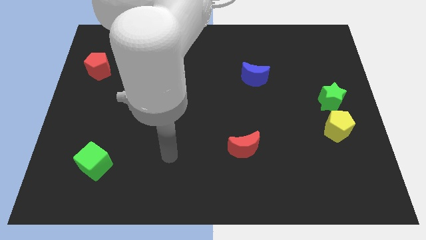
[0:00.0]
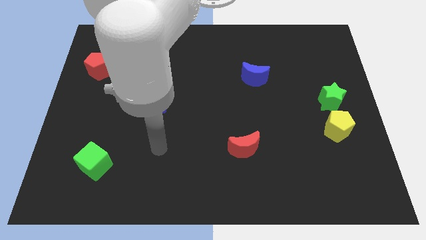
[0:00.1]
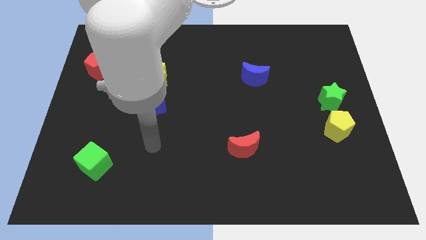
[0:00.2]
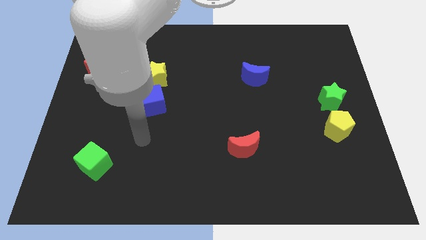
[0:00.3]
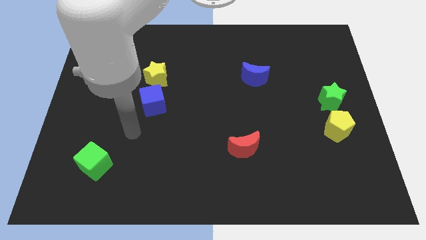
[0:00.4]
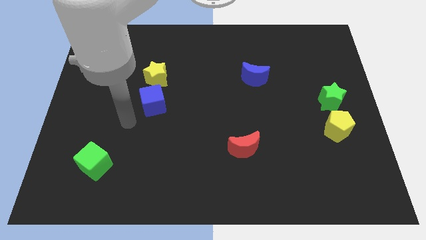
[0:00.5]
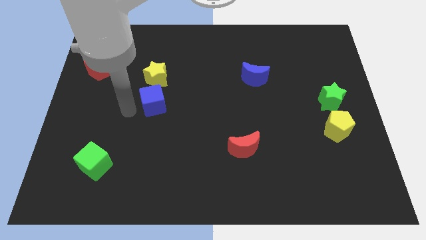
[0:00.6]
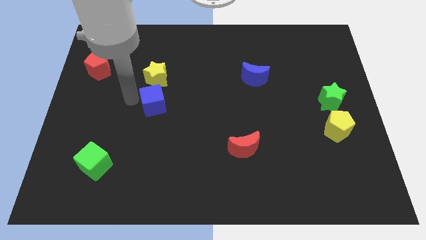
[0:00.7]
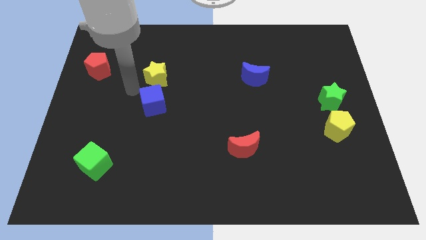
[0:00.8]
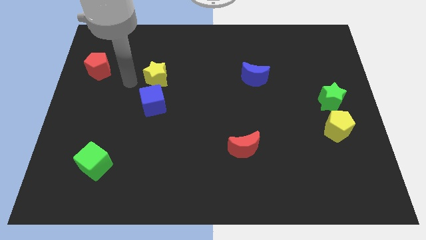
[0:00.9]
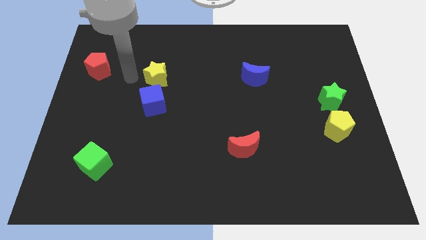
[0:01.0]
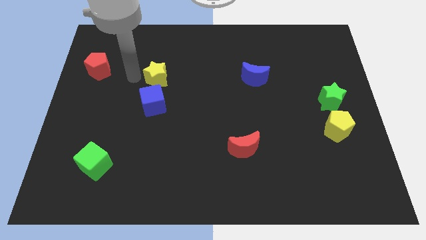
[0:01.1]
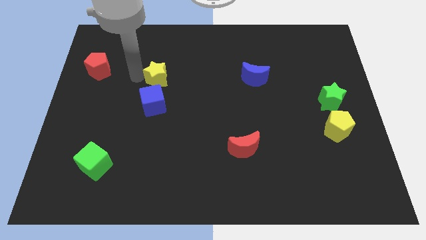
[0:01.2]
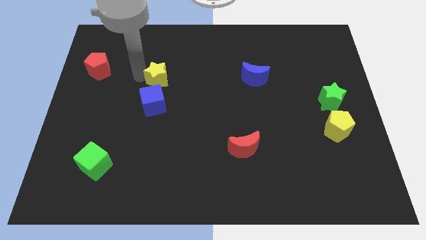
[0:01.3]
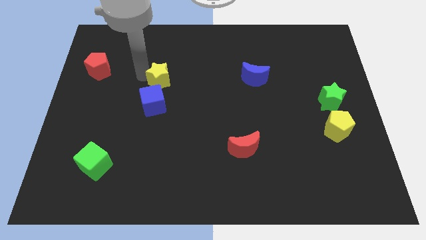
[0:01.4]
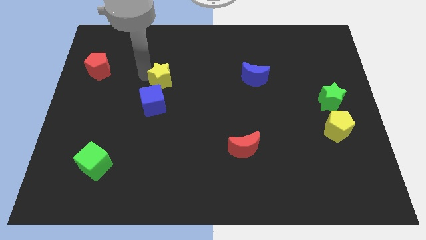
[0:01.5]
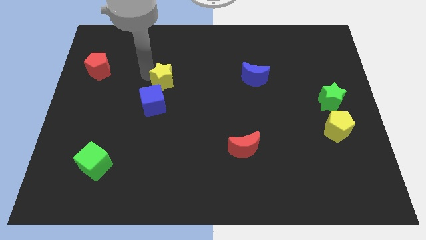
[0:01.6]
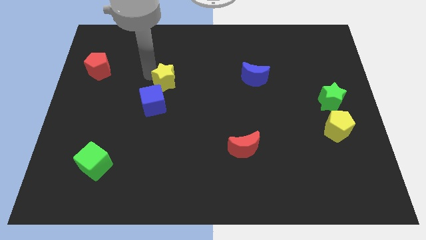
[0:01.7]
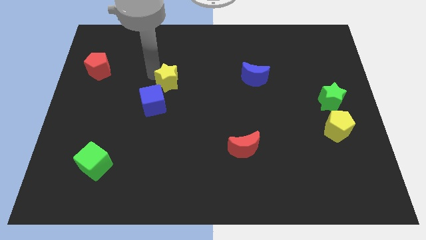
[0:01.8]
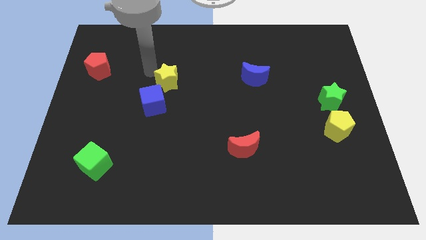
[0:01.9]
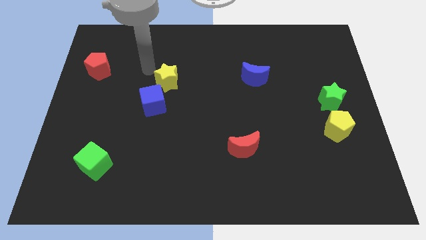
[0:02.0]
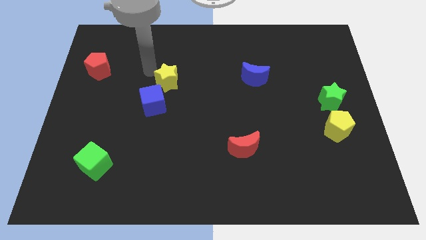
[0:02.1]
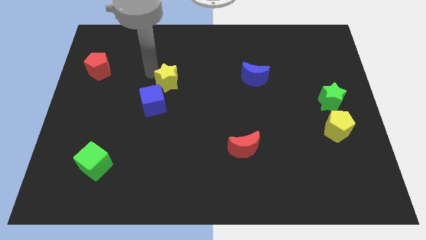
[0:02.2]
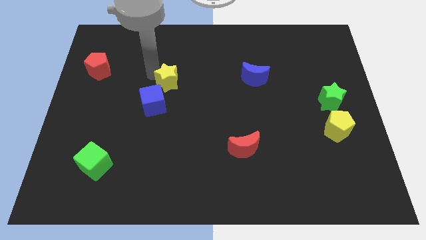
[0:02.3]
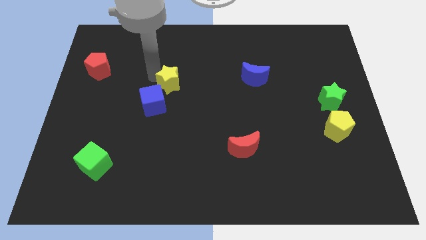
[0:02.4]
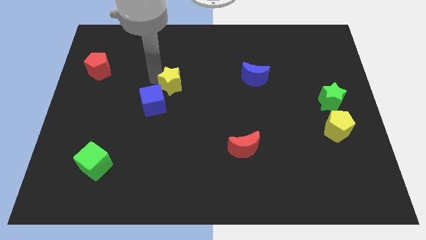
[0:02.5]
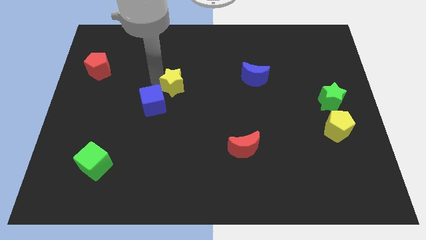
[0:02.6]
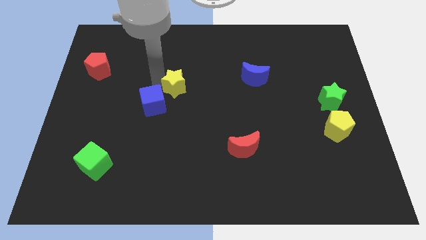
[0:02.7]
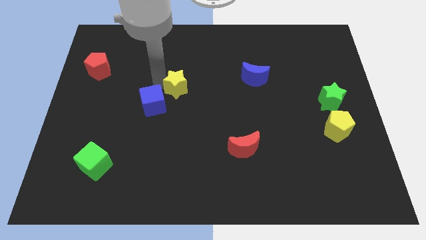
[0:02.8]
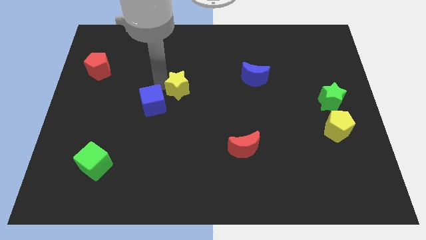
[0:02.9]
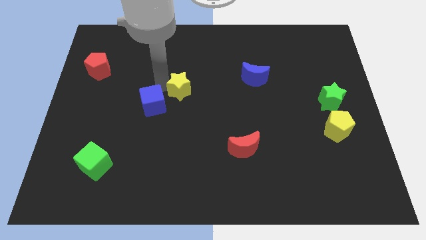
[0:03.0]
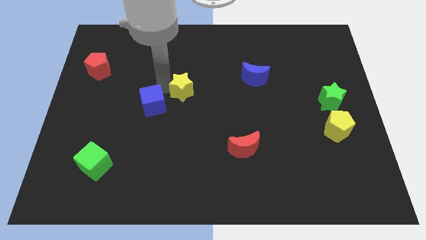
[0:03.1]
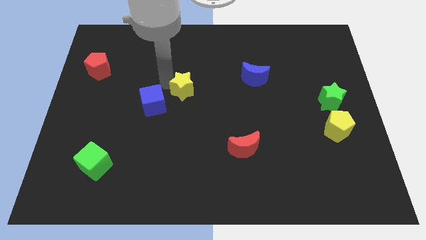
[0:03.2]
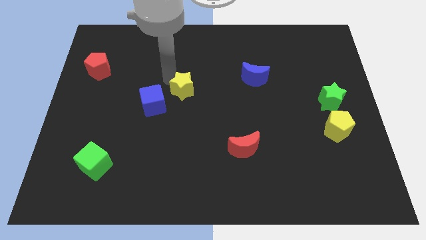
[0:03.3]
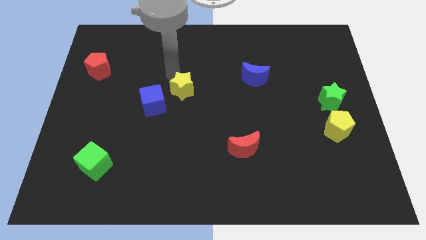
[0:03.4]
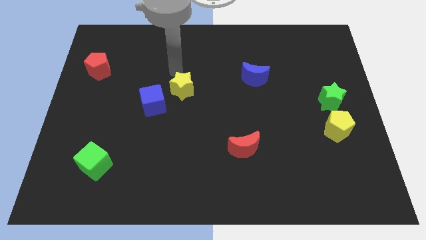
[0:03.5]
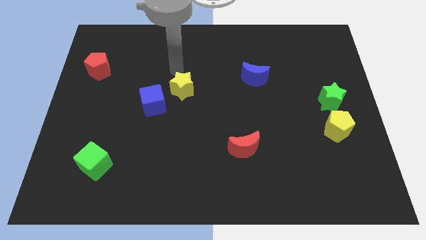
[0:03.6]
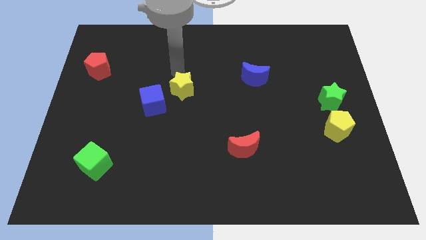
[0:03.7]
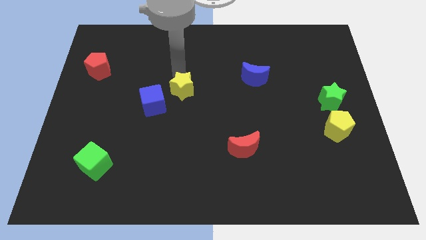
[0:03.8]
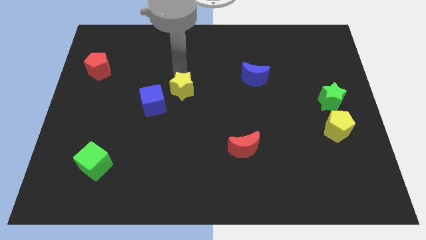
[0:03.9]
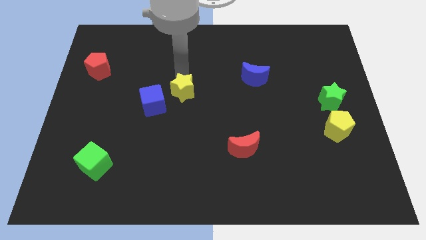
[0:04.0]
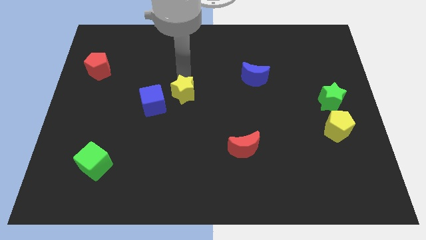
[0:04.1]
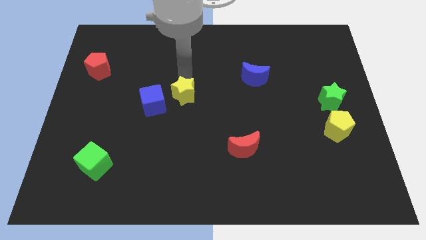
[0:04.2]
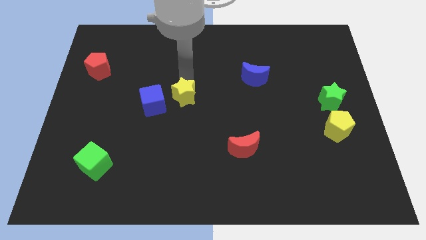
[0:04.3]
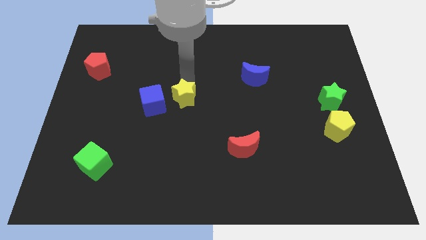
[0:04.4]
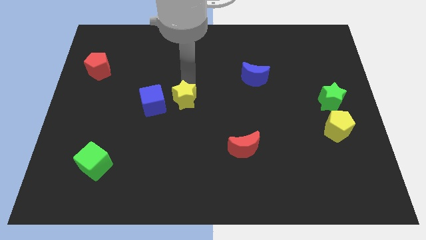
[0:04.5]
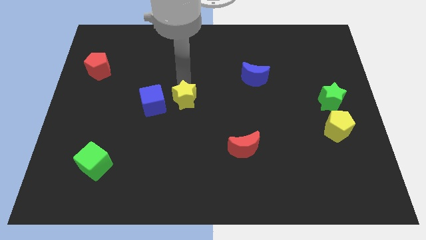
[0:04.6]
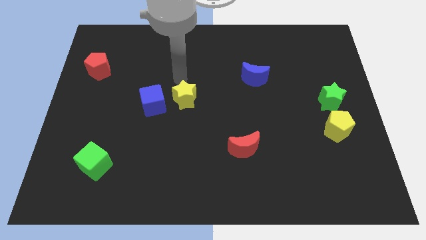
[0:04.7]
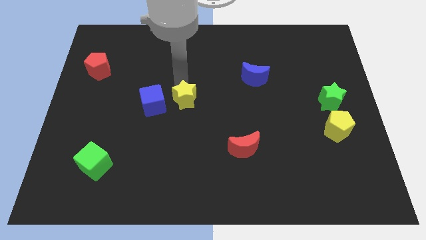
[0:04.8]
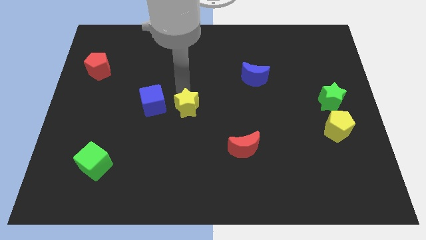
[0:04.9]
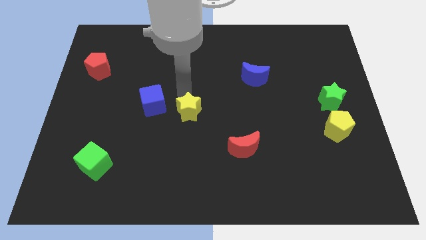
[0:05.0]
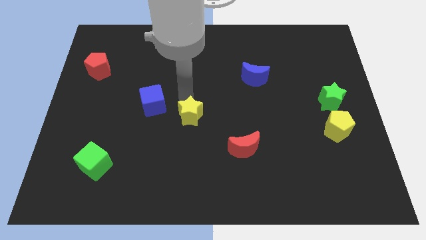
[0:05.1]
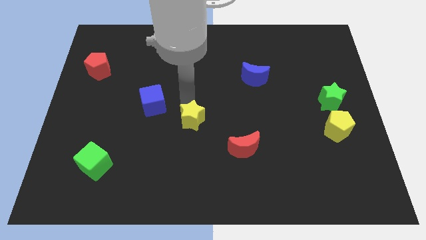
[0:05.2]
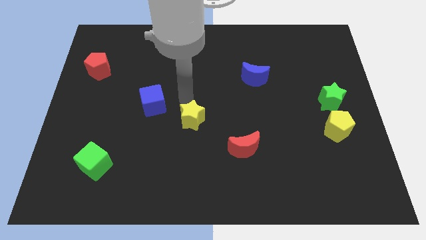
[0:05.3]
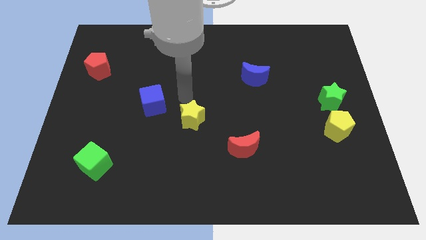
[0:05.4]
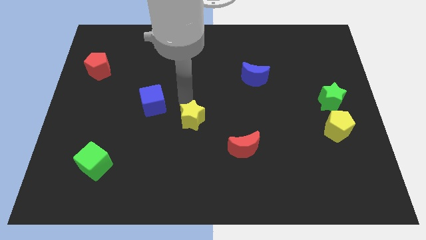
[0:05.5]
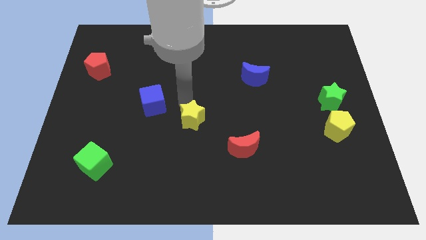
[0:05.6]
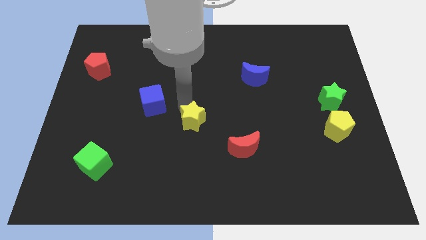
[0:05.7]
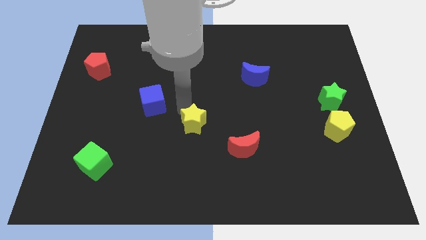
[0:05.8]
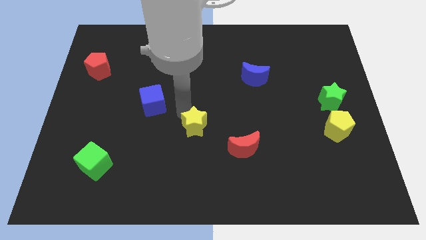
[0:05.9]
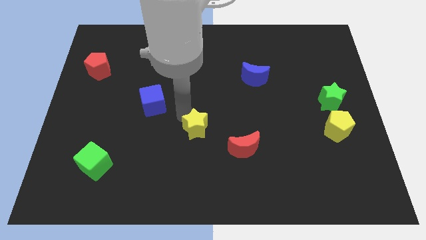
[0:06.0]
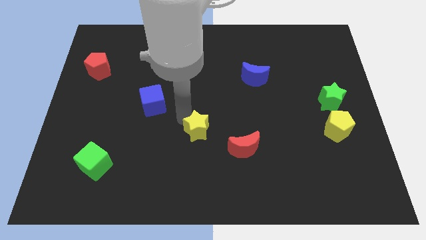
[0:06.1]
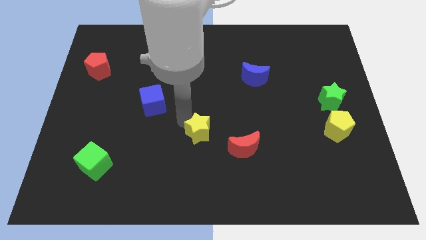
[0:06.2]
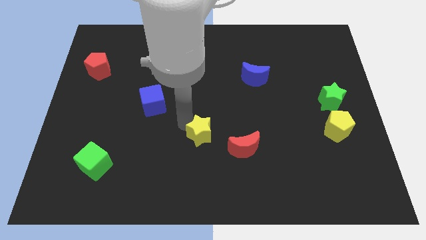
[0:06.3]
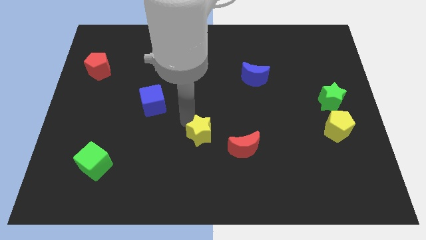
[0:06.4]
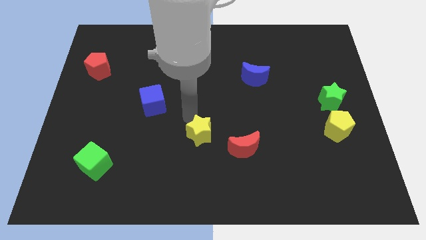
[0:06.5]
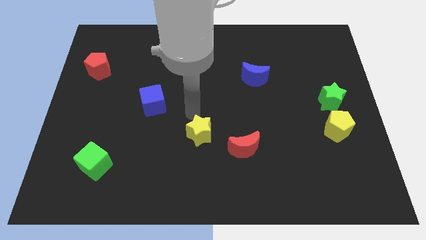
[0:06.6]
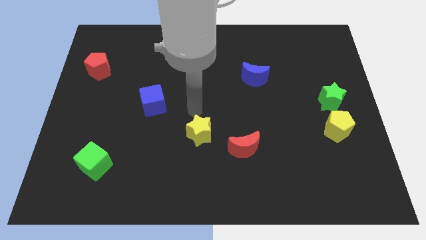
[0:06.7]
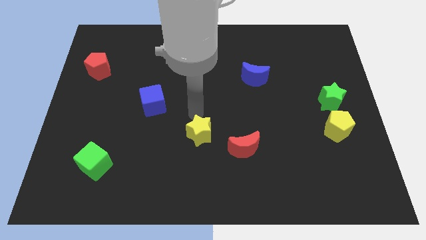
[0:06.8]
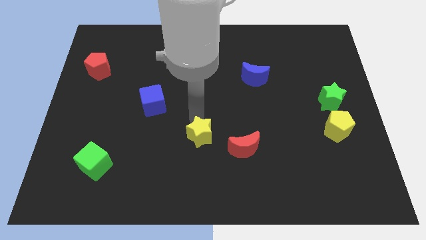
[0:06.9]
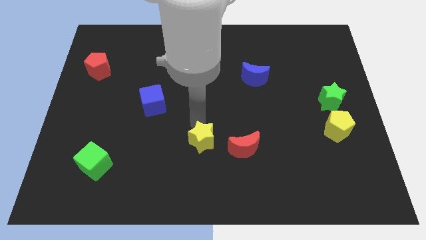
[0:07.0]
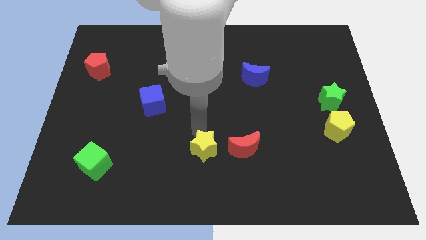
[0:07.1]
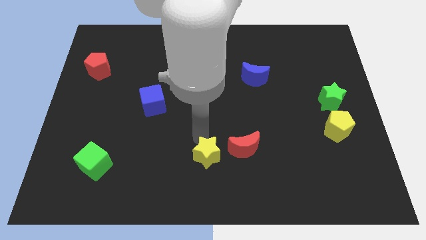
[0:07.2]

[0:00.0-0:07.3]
push the yellow star to the bottom side
